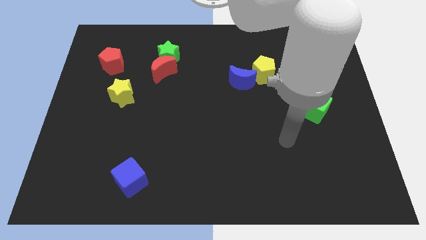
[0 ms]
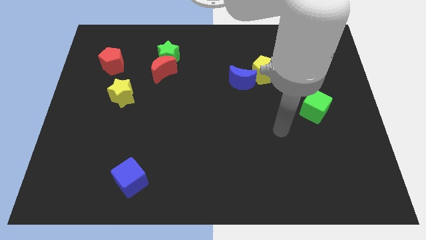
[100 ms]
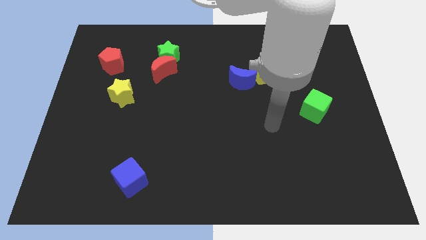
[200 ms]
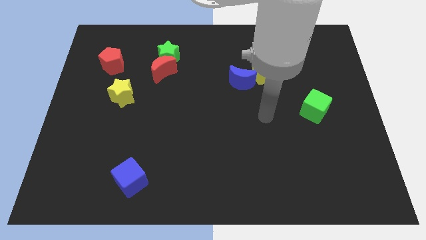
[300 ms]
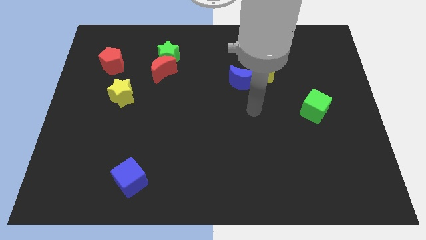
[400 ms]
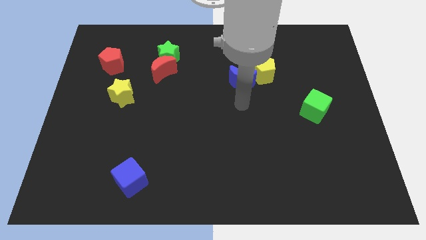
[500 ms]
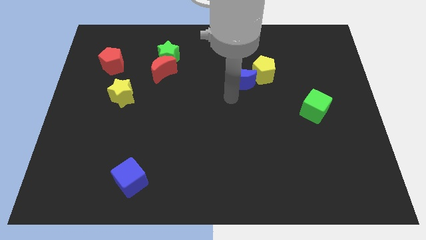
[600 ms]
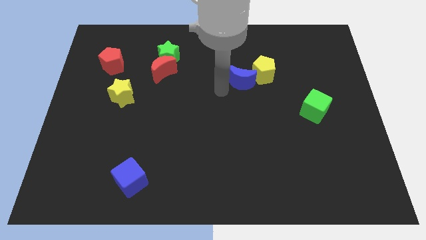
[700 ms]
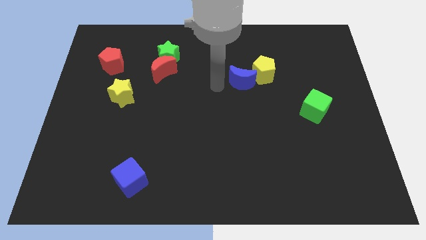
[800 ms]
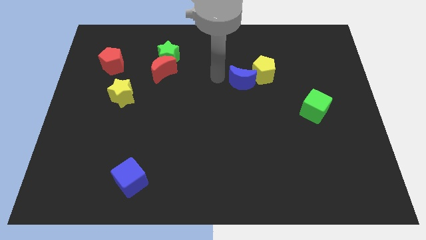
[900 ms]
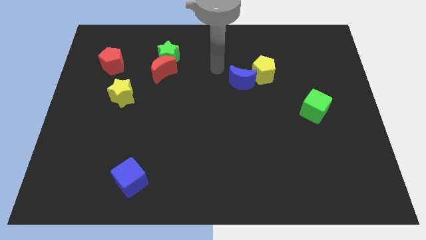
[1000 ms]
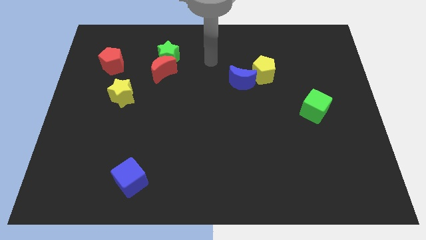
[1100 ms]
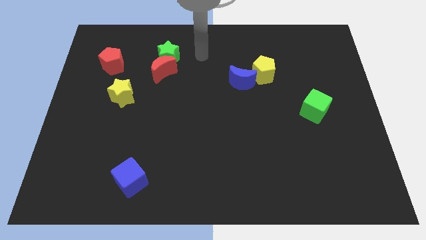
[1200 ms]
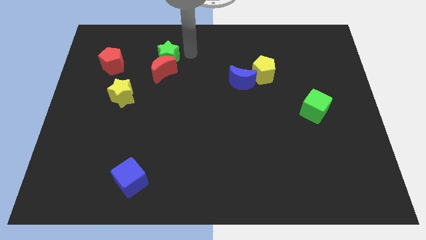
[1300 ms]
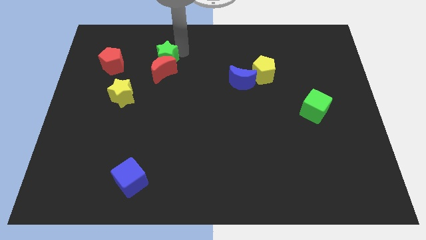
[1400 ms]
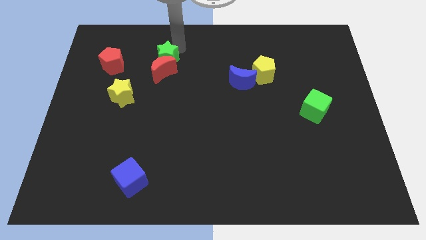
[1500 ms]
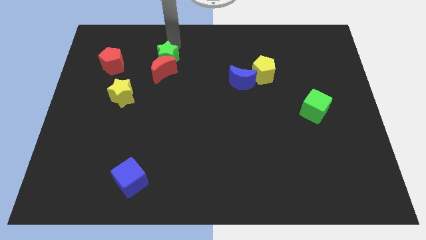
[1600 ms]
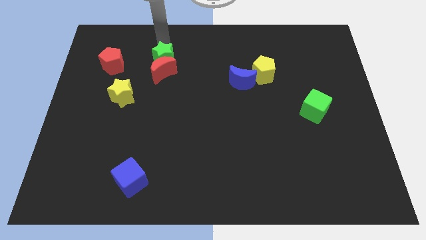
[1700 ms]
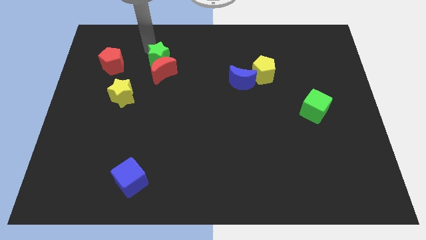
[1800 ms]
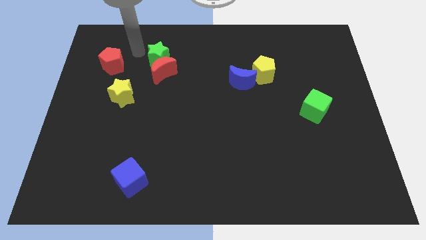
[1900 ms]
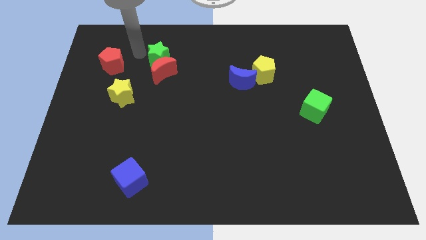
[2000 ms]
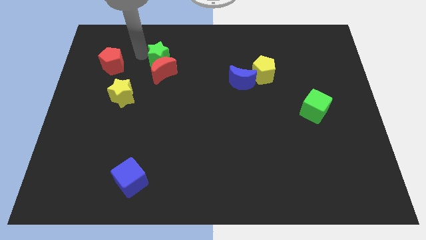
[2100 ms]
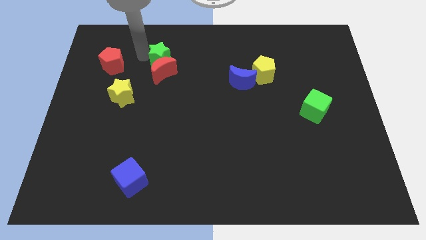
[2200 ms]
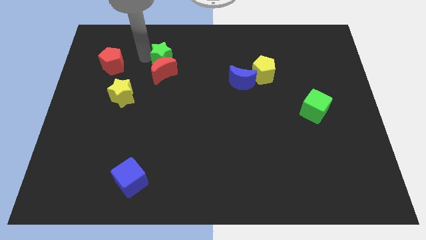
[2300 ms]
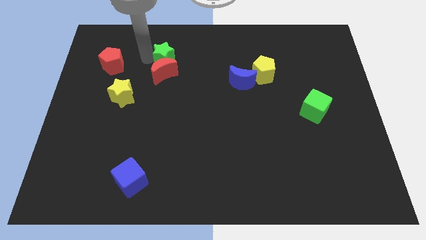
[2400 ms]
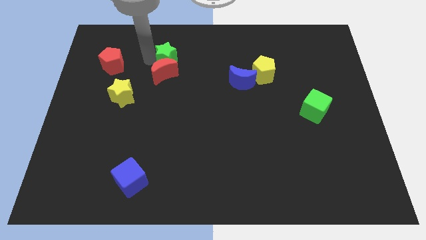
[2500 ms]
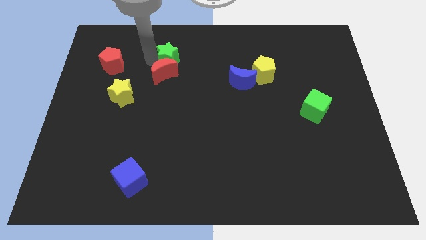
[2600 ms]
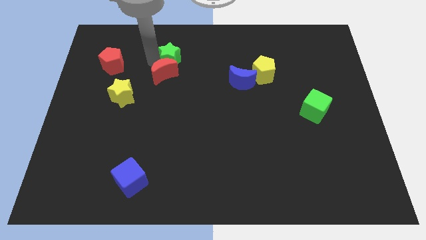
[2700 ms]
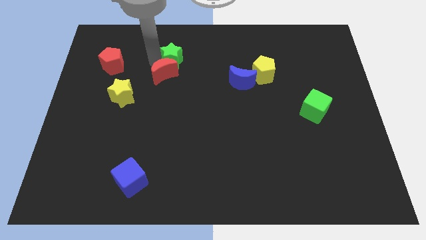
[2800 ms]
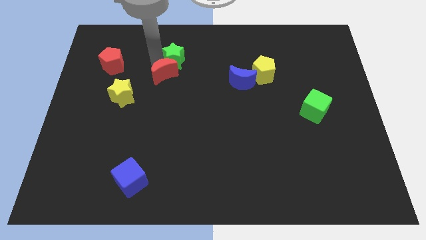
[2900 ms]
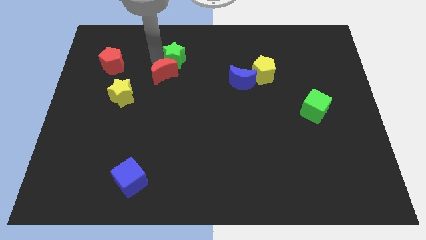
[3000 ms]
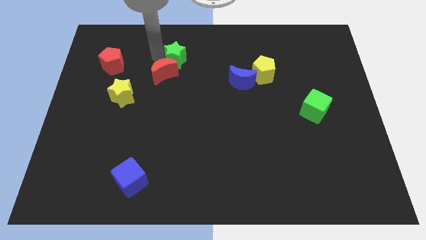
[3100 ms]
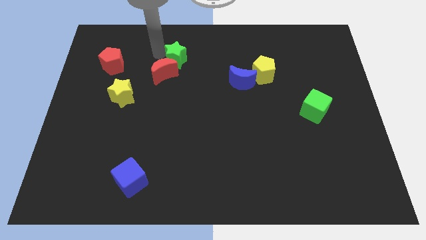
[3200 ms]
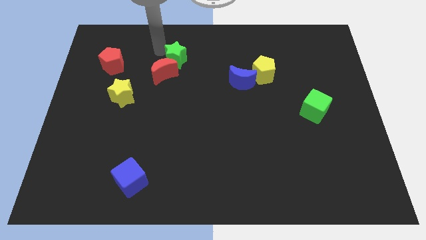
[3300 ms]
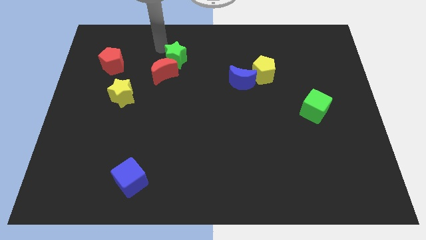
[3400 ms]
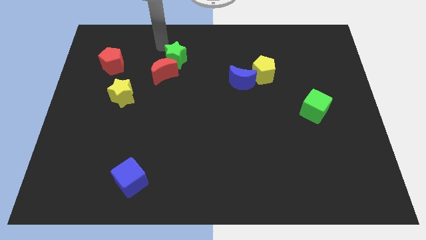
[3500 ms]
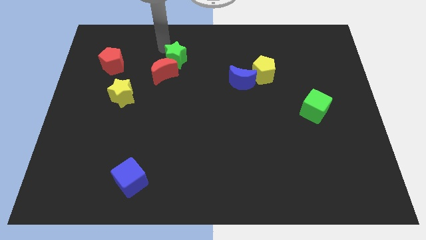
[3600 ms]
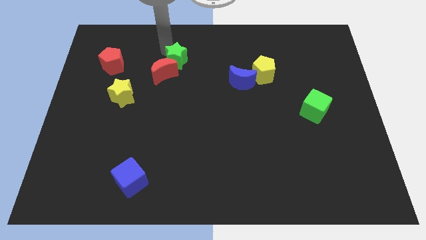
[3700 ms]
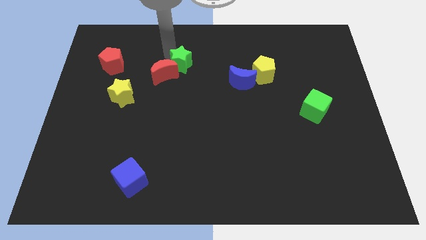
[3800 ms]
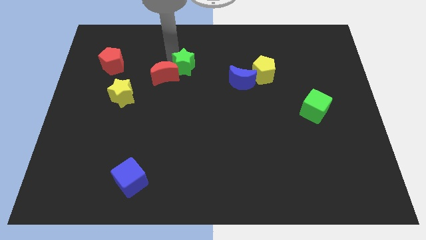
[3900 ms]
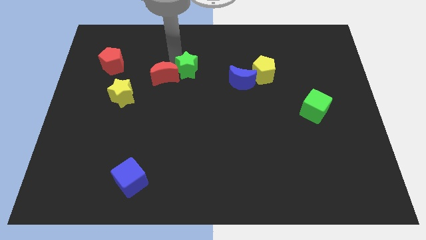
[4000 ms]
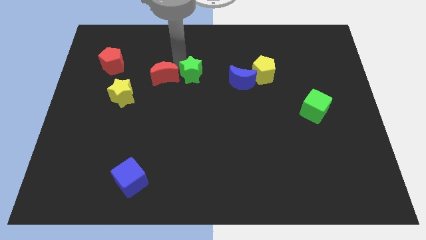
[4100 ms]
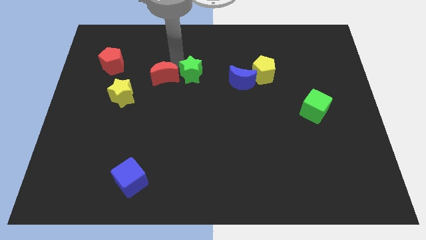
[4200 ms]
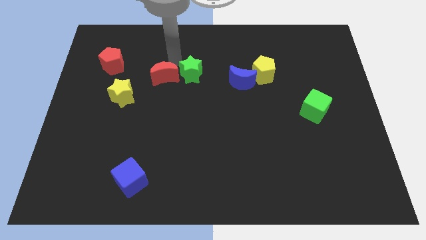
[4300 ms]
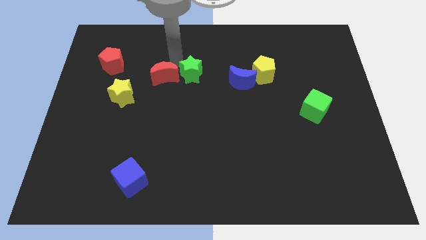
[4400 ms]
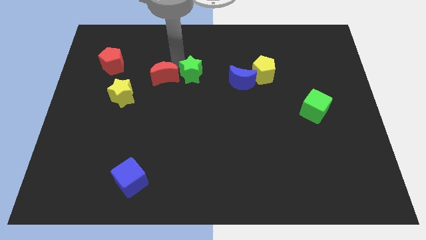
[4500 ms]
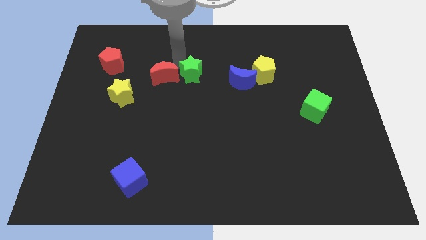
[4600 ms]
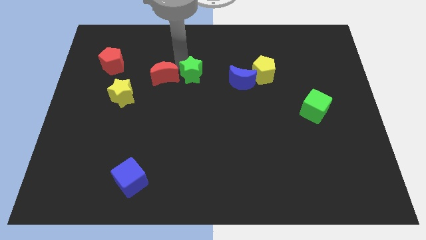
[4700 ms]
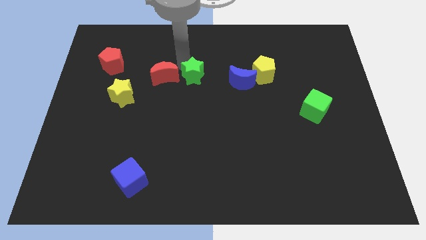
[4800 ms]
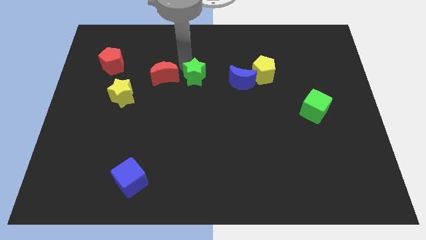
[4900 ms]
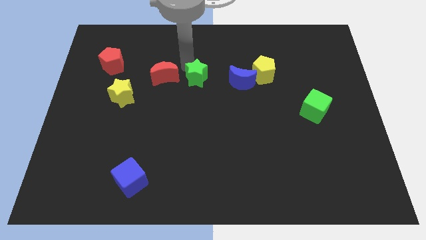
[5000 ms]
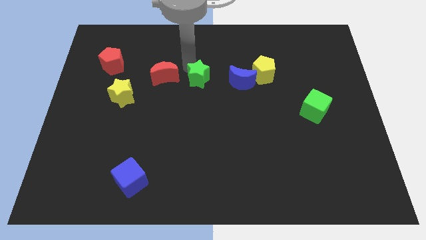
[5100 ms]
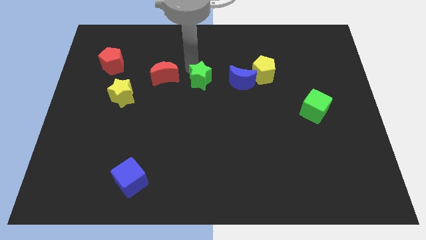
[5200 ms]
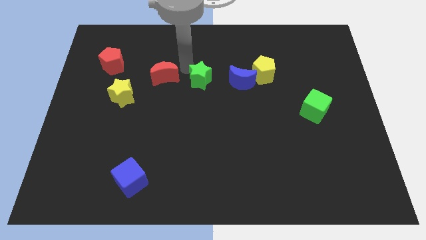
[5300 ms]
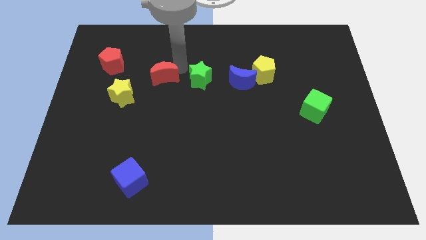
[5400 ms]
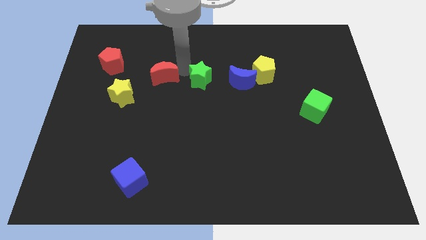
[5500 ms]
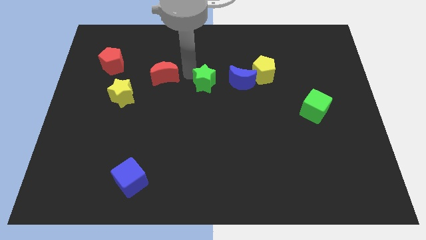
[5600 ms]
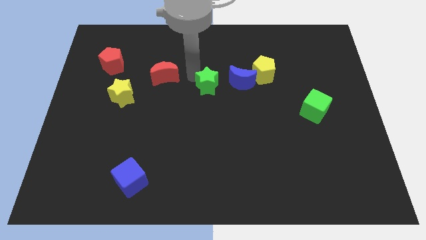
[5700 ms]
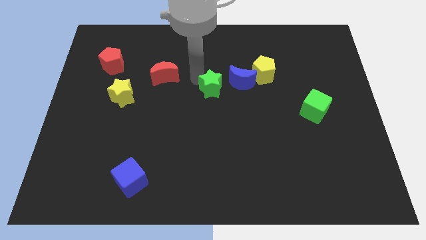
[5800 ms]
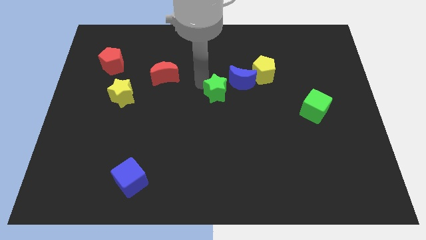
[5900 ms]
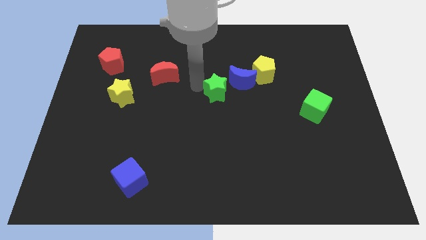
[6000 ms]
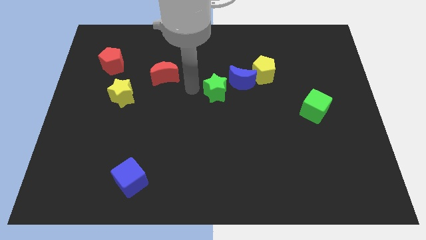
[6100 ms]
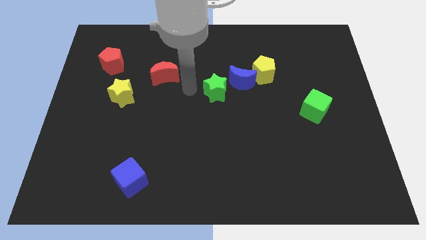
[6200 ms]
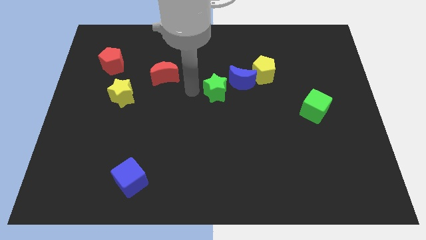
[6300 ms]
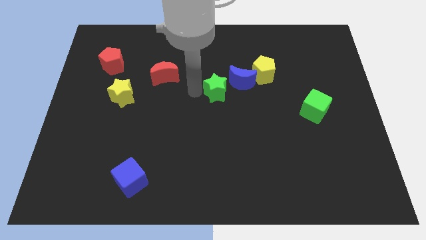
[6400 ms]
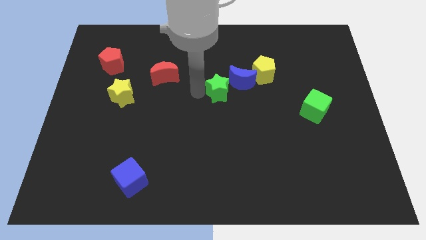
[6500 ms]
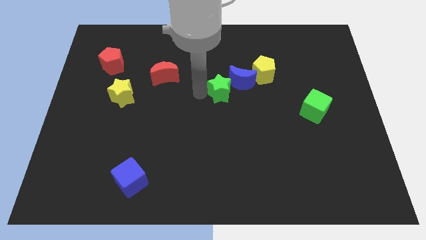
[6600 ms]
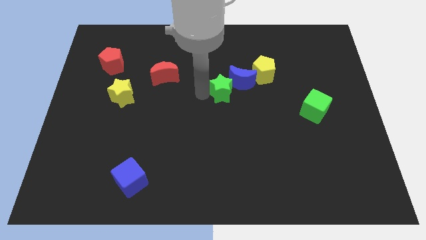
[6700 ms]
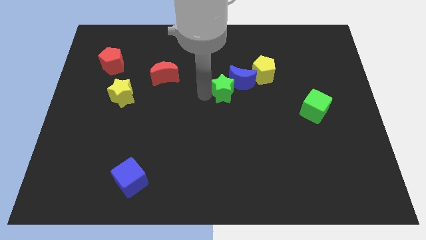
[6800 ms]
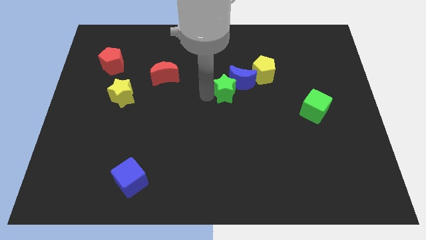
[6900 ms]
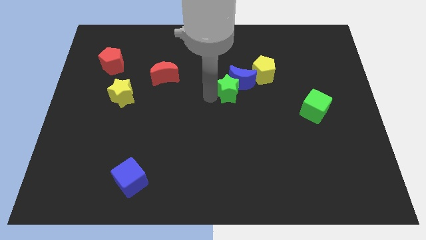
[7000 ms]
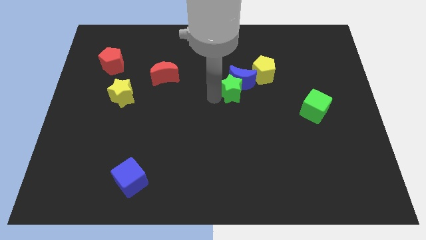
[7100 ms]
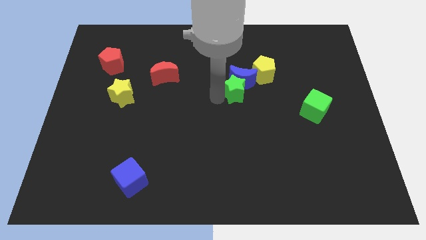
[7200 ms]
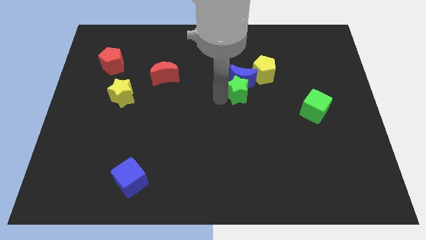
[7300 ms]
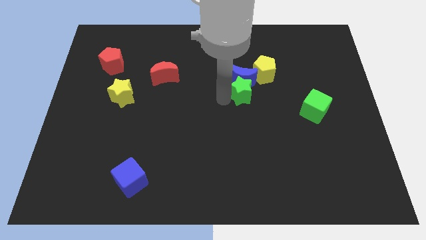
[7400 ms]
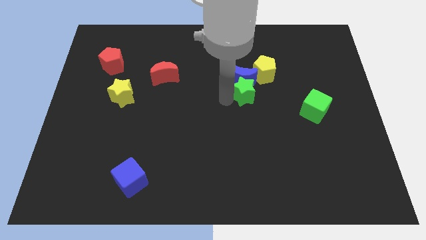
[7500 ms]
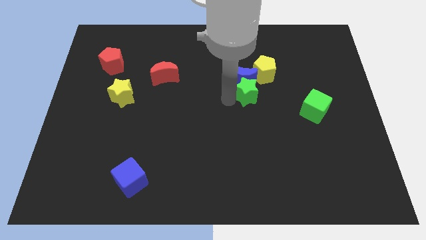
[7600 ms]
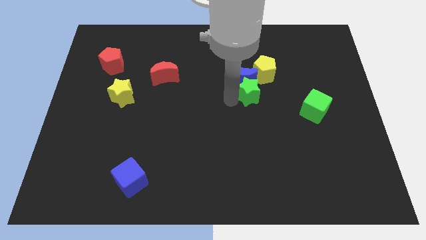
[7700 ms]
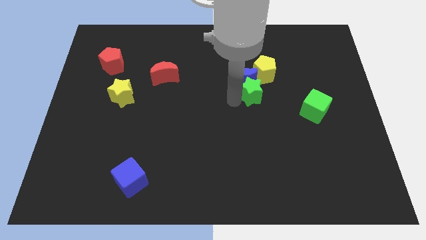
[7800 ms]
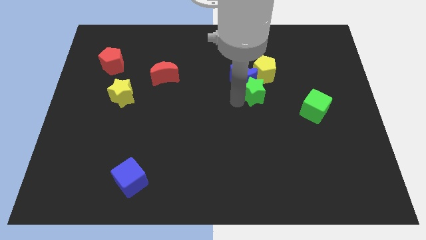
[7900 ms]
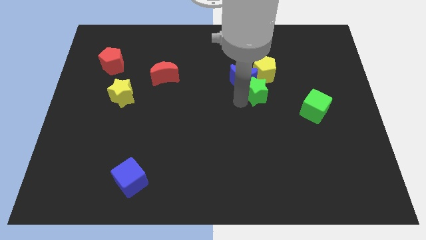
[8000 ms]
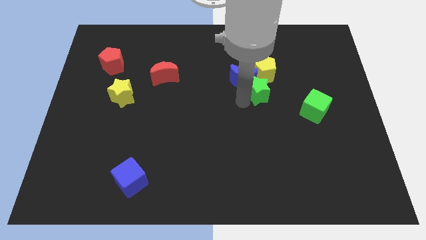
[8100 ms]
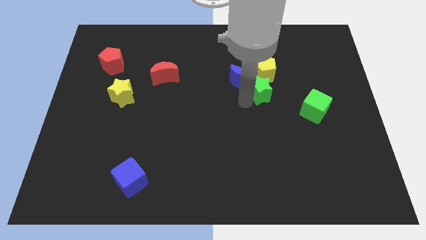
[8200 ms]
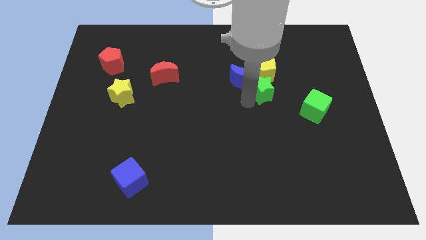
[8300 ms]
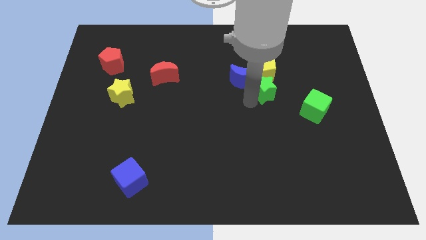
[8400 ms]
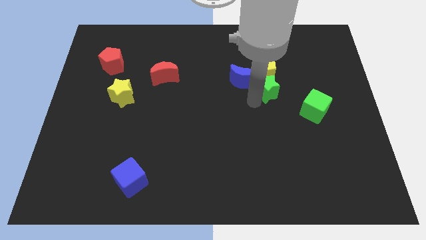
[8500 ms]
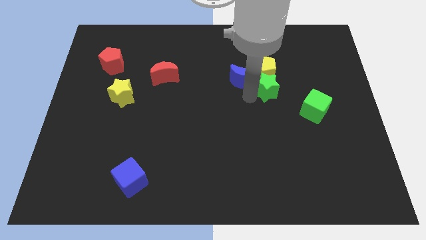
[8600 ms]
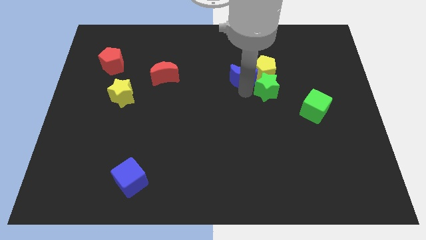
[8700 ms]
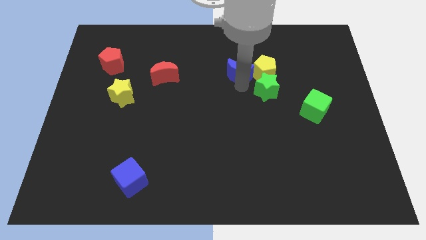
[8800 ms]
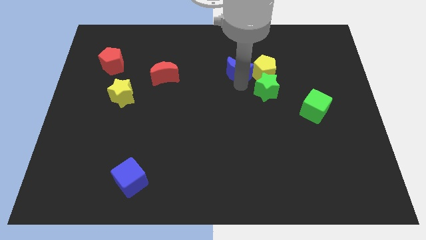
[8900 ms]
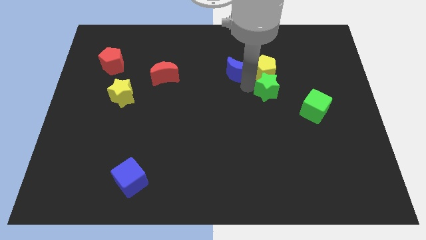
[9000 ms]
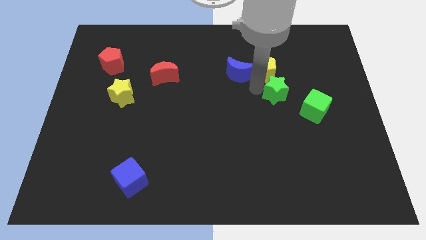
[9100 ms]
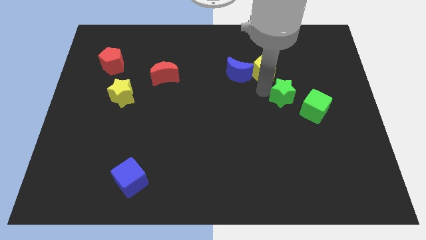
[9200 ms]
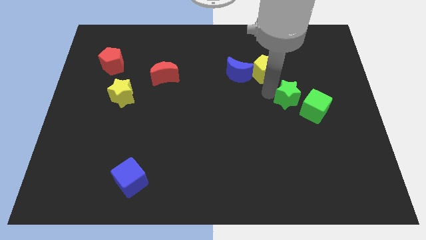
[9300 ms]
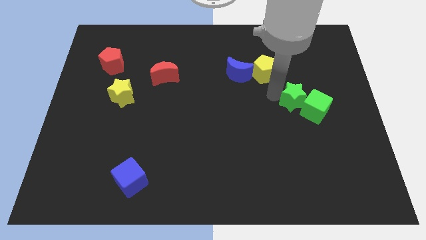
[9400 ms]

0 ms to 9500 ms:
push the green star towards the green cube
